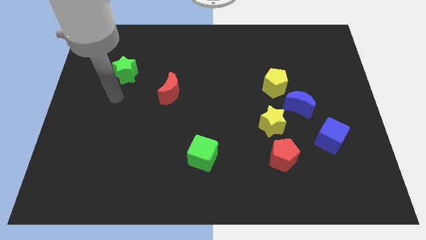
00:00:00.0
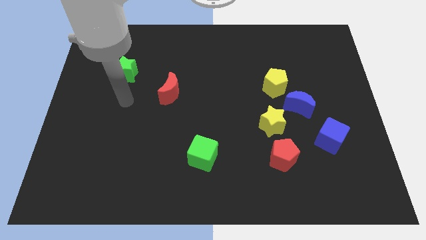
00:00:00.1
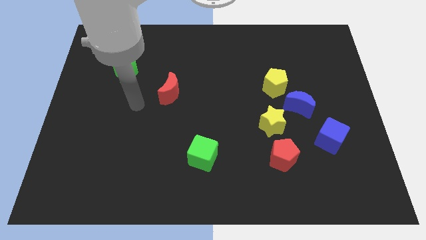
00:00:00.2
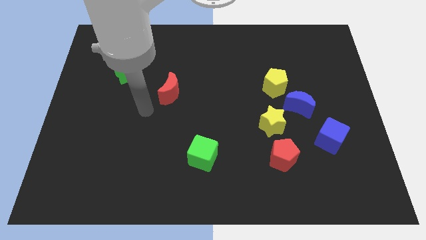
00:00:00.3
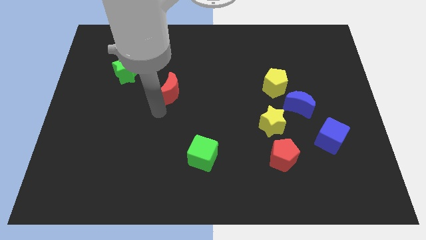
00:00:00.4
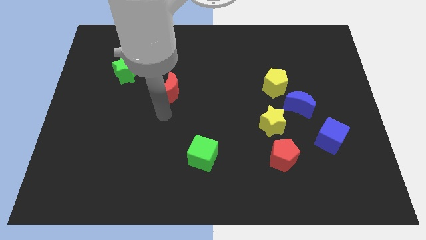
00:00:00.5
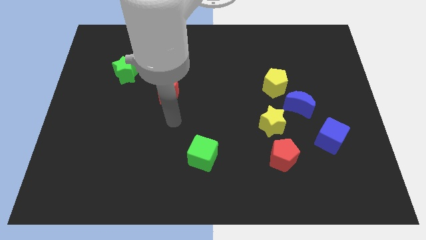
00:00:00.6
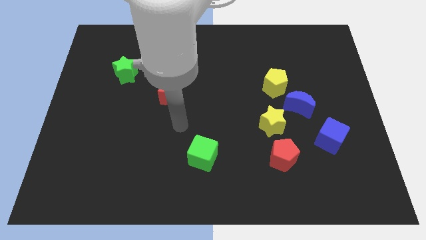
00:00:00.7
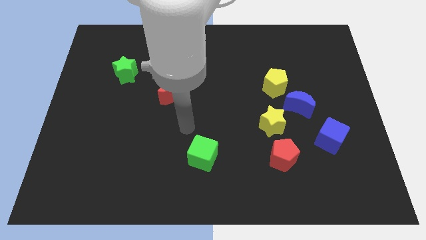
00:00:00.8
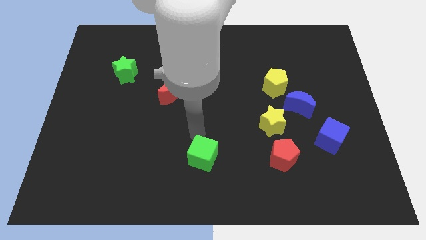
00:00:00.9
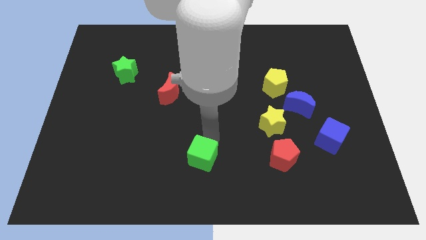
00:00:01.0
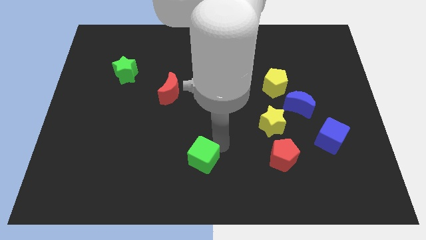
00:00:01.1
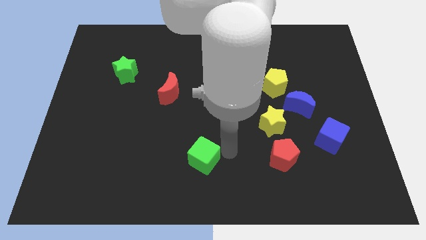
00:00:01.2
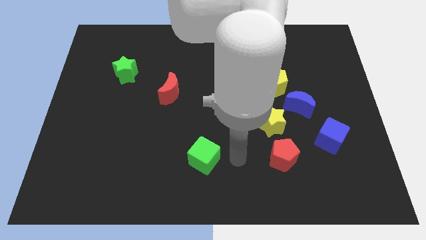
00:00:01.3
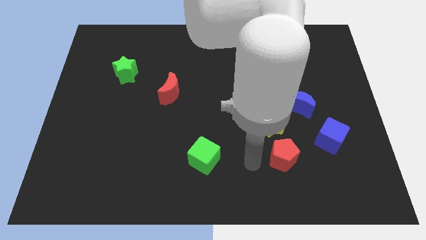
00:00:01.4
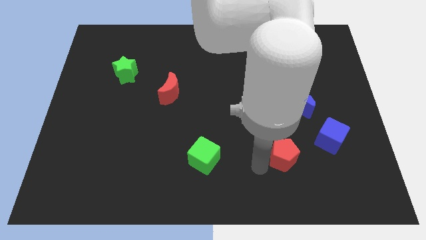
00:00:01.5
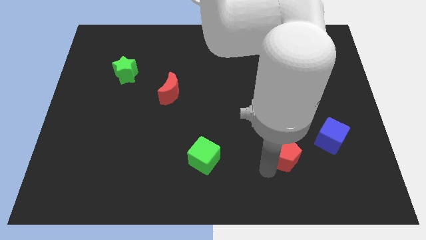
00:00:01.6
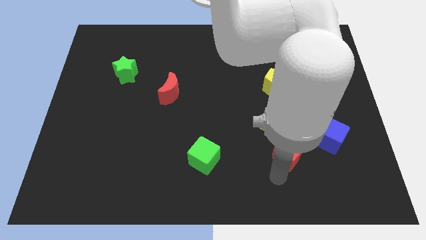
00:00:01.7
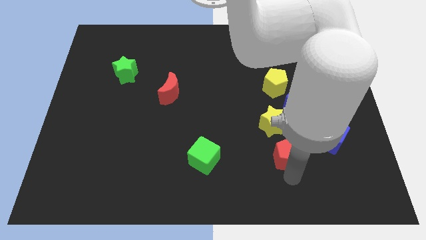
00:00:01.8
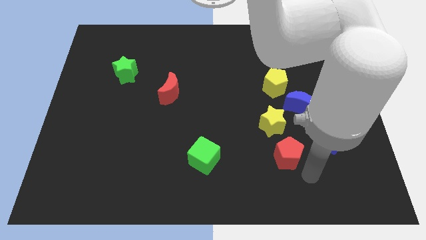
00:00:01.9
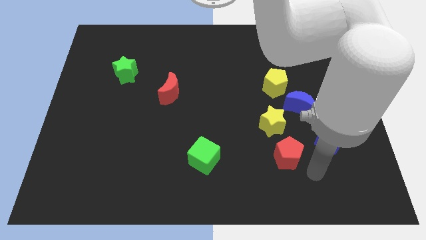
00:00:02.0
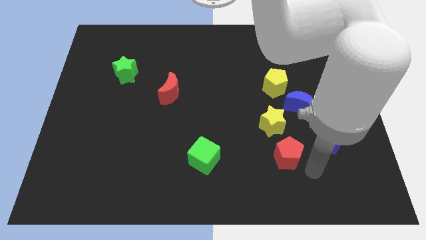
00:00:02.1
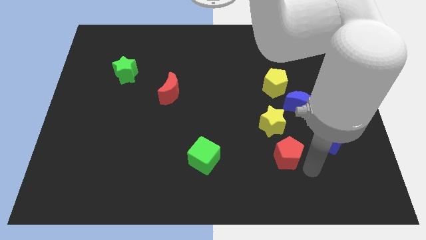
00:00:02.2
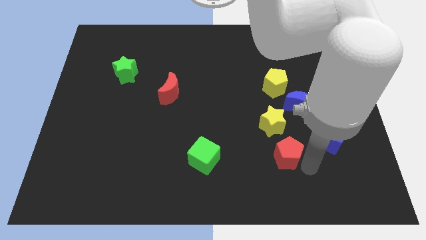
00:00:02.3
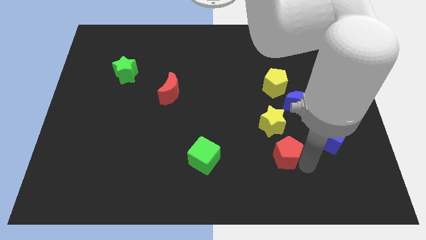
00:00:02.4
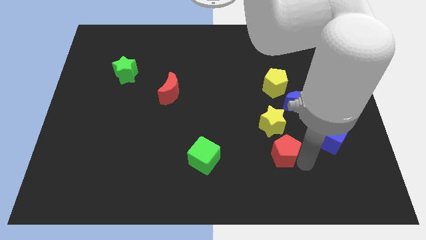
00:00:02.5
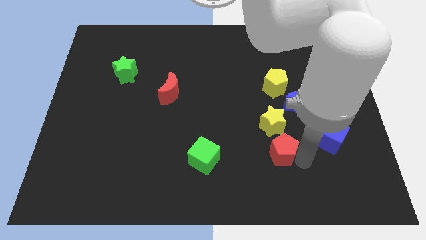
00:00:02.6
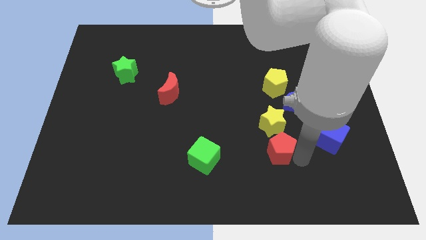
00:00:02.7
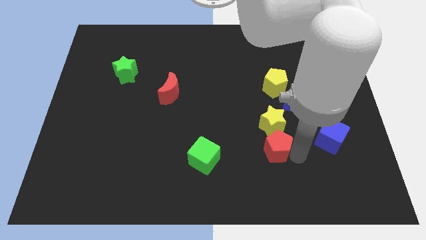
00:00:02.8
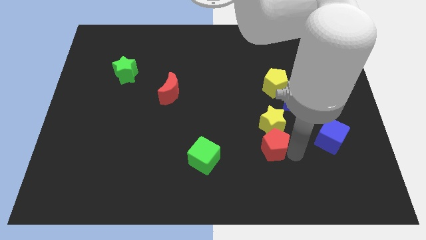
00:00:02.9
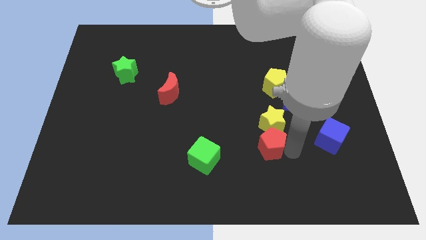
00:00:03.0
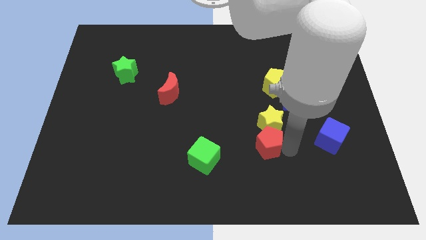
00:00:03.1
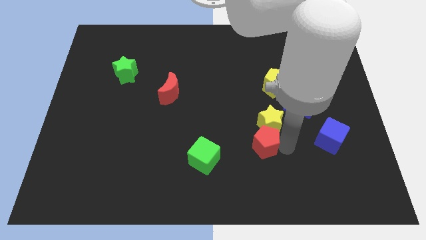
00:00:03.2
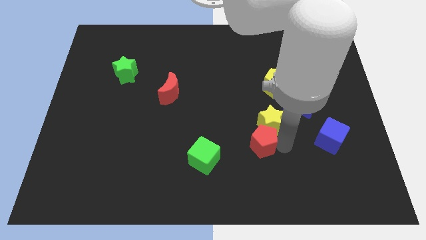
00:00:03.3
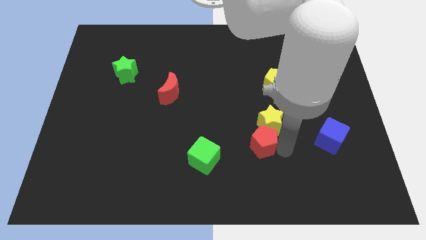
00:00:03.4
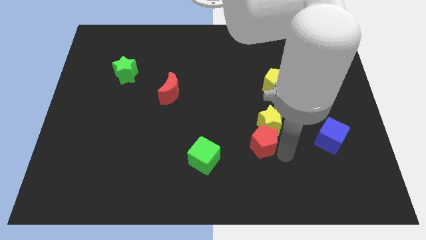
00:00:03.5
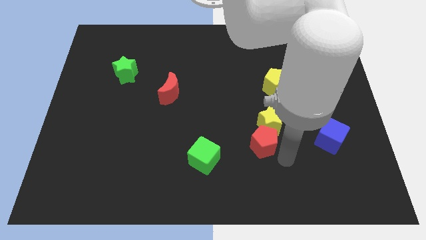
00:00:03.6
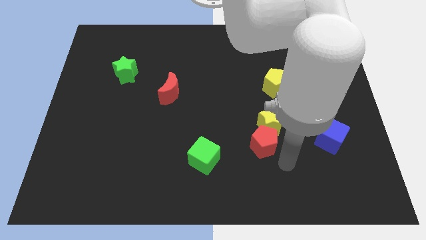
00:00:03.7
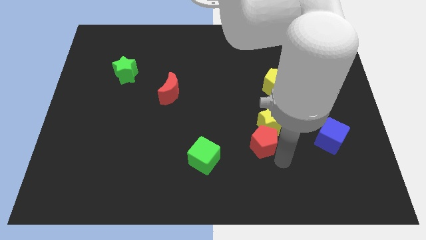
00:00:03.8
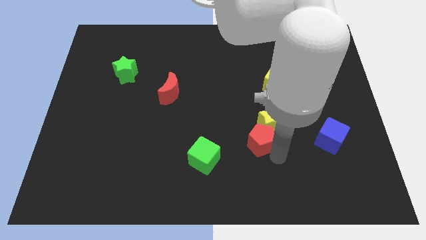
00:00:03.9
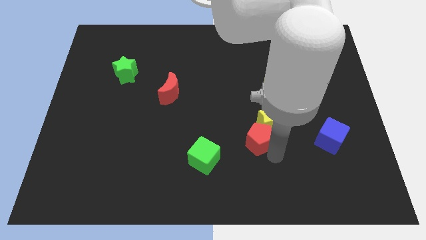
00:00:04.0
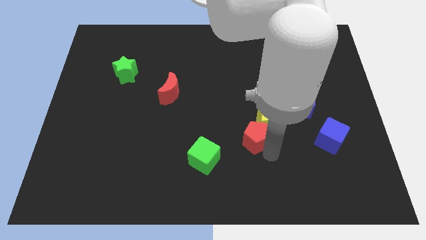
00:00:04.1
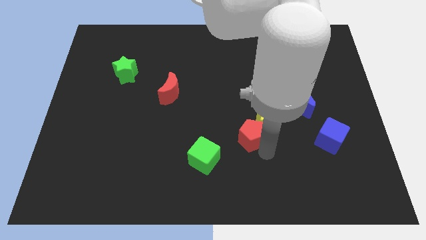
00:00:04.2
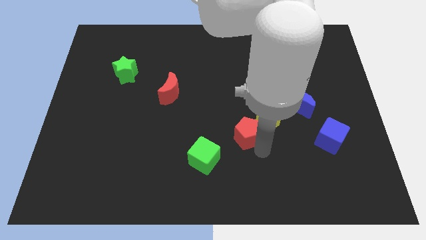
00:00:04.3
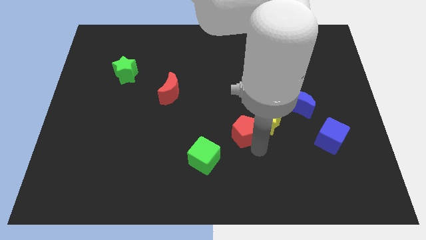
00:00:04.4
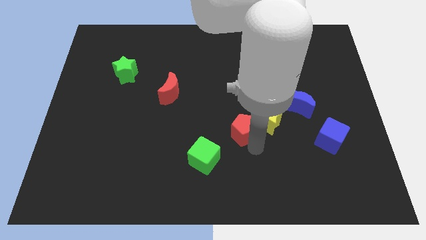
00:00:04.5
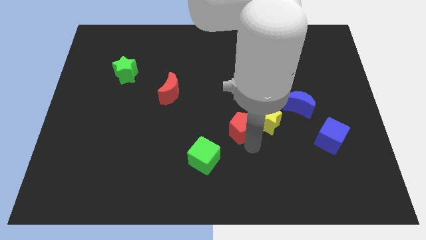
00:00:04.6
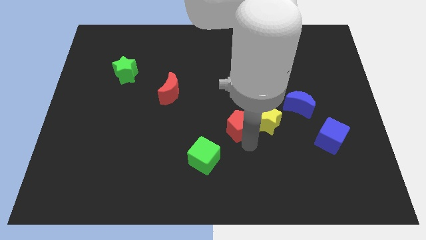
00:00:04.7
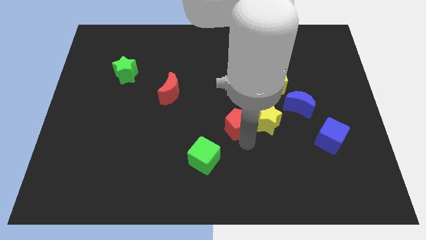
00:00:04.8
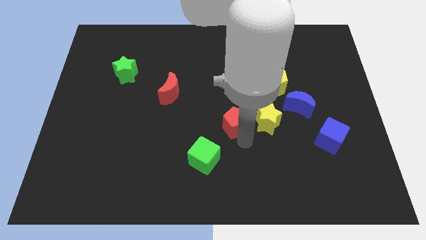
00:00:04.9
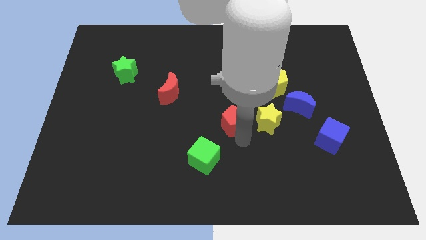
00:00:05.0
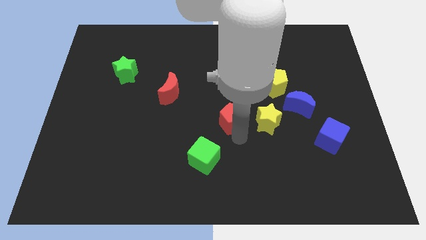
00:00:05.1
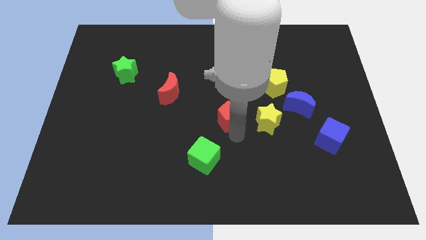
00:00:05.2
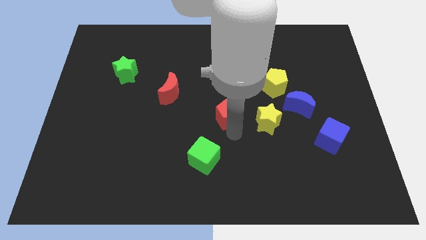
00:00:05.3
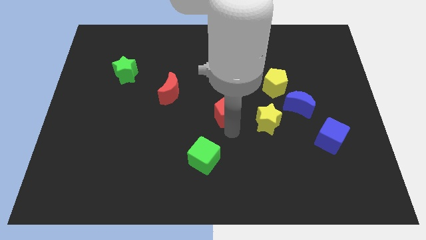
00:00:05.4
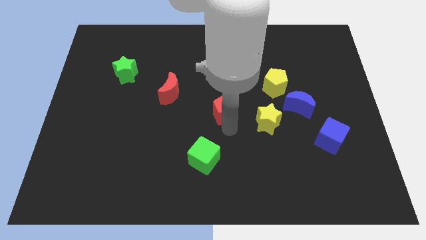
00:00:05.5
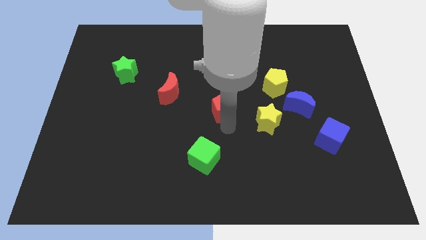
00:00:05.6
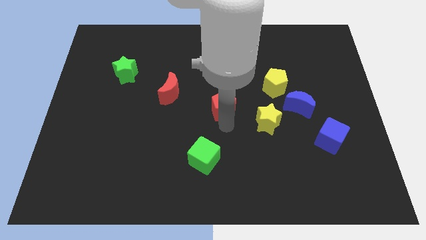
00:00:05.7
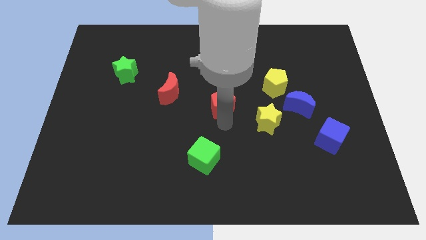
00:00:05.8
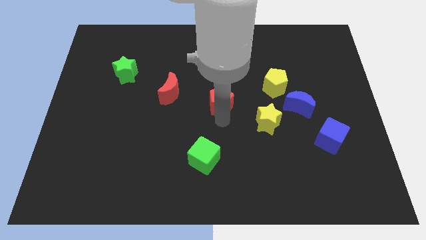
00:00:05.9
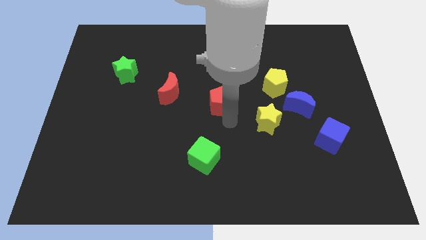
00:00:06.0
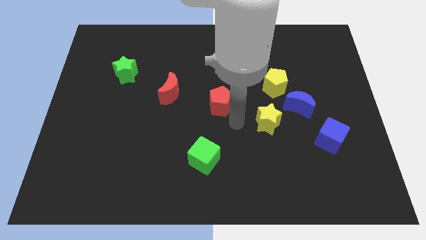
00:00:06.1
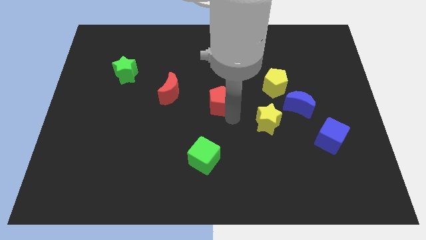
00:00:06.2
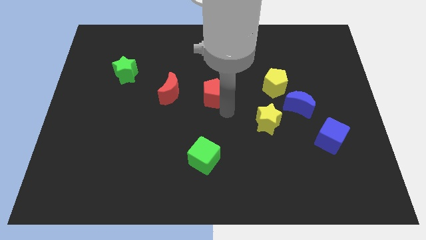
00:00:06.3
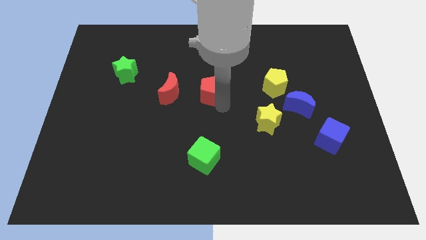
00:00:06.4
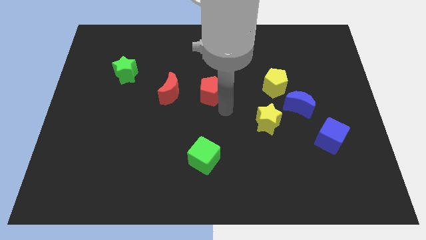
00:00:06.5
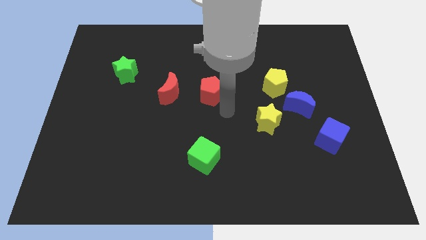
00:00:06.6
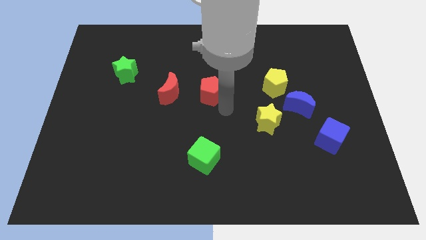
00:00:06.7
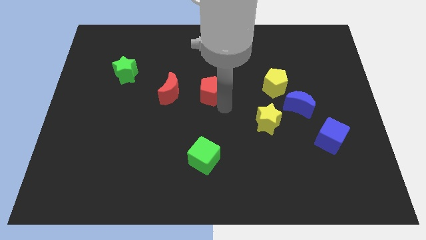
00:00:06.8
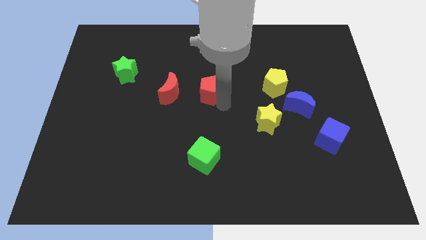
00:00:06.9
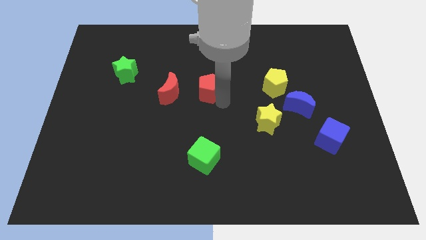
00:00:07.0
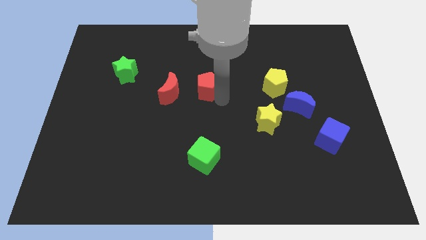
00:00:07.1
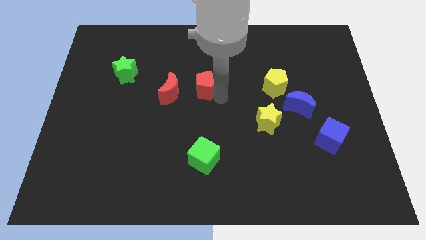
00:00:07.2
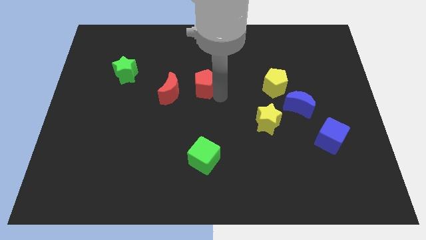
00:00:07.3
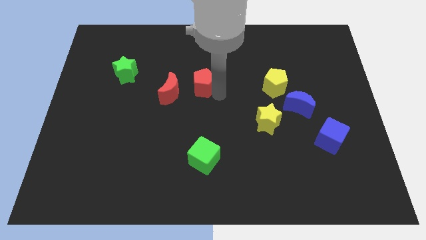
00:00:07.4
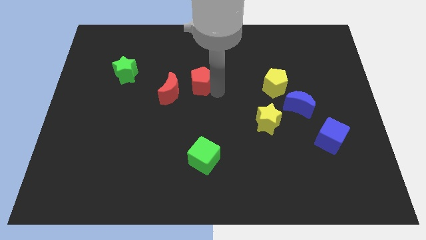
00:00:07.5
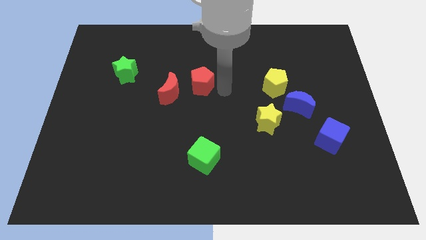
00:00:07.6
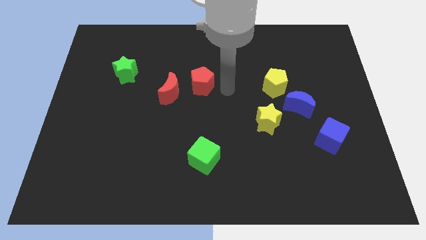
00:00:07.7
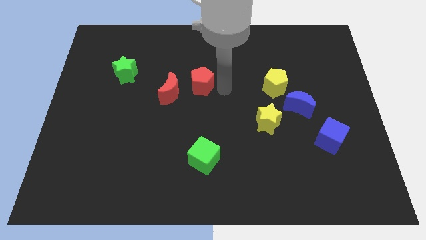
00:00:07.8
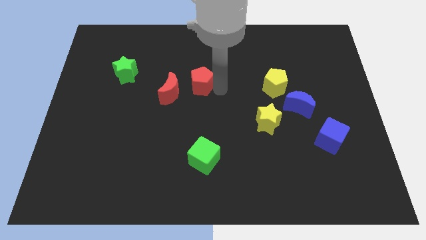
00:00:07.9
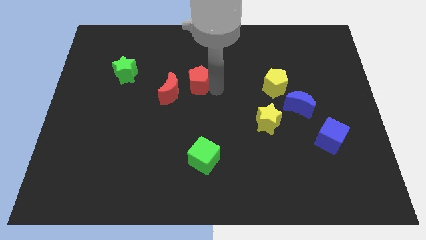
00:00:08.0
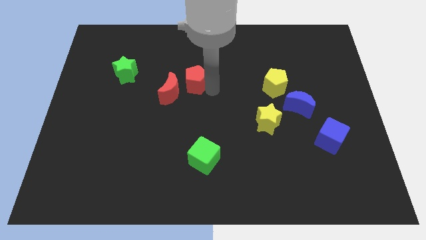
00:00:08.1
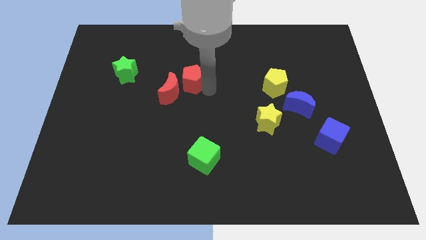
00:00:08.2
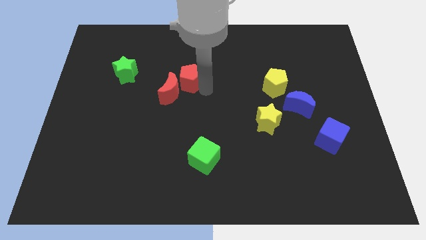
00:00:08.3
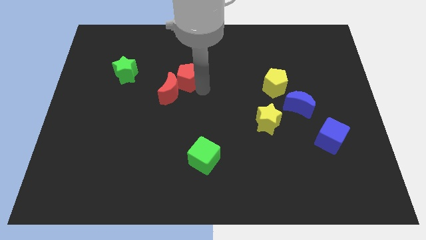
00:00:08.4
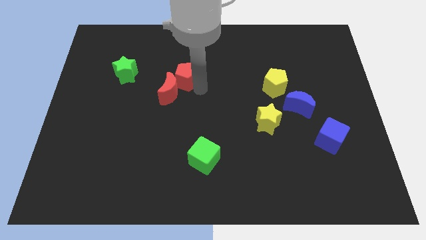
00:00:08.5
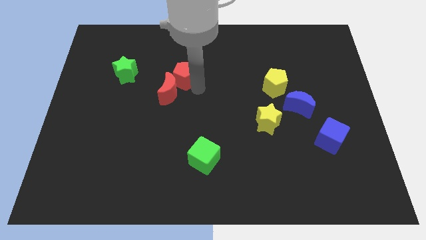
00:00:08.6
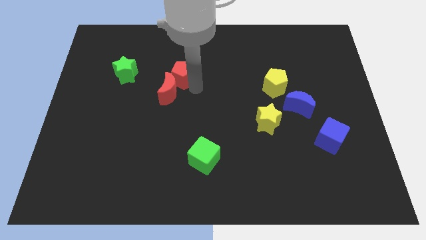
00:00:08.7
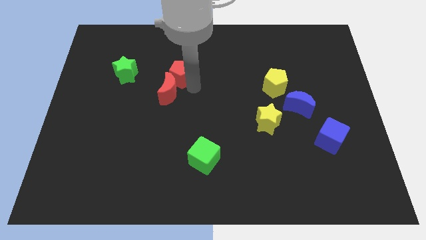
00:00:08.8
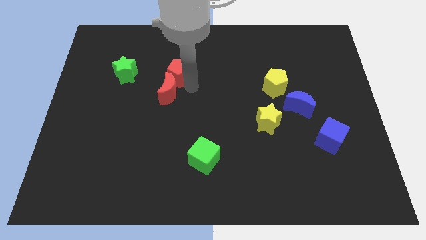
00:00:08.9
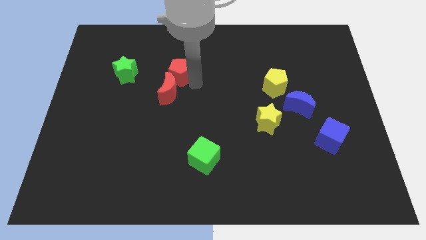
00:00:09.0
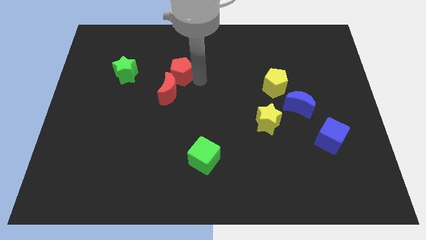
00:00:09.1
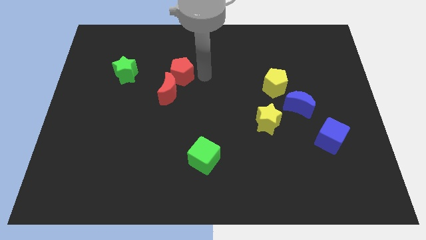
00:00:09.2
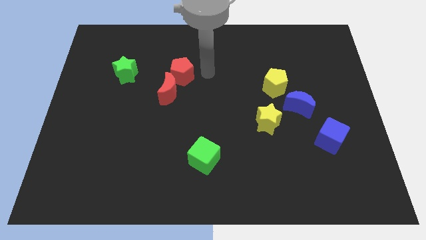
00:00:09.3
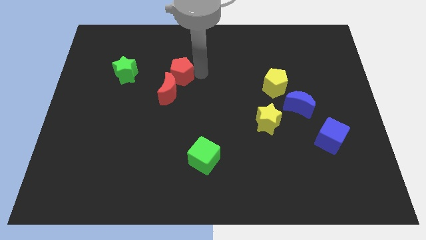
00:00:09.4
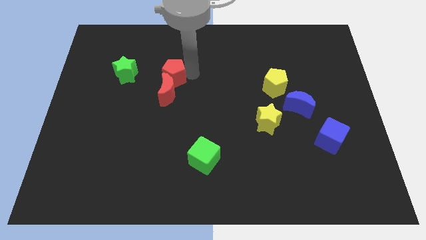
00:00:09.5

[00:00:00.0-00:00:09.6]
move the red pentagon to the top left side of the red moon
